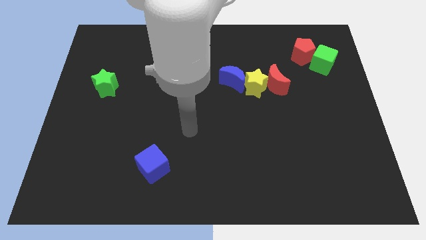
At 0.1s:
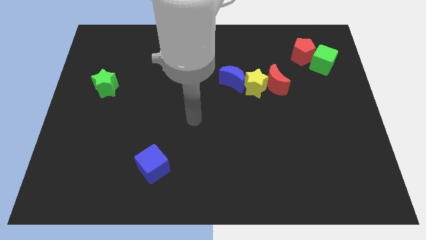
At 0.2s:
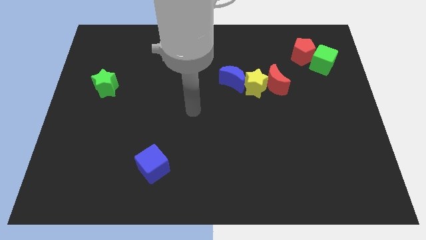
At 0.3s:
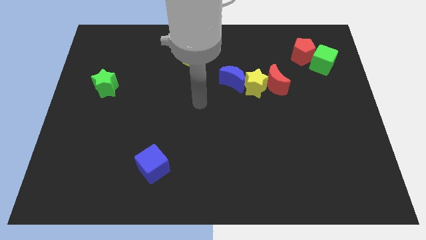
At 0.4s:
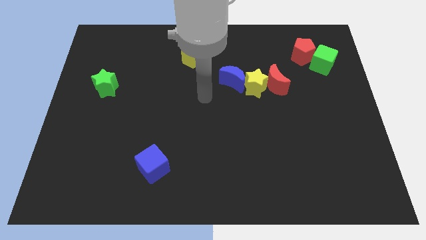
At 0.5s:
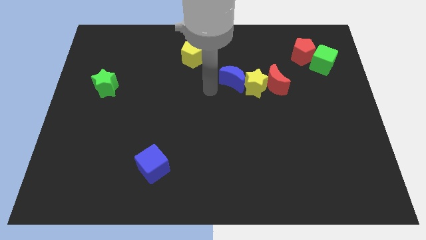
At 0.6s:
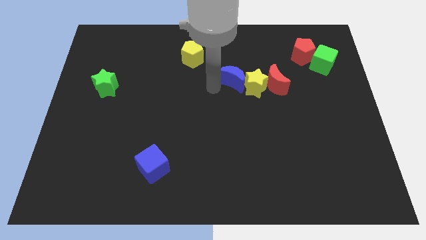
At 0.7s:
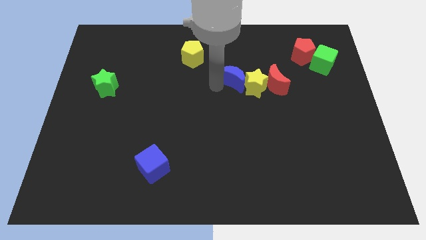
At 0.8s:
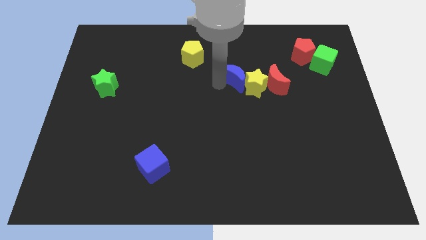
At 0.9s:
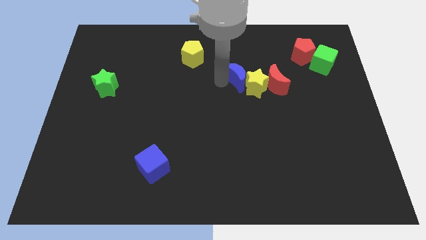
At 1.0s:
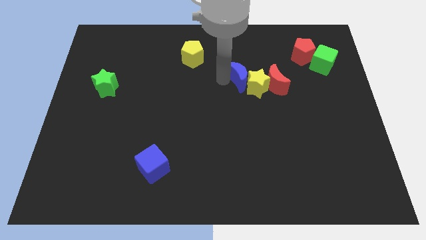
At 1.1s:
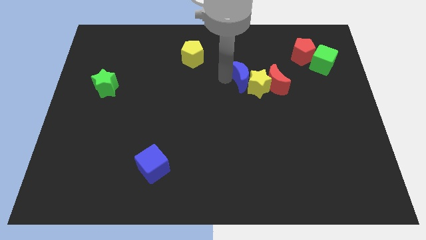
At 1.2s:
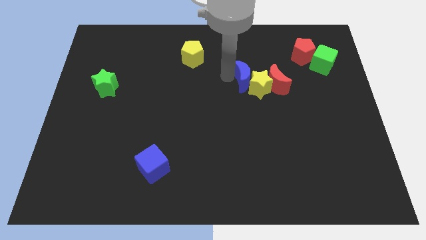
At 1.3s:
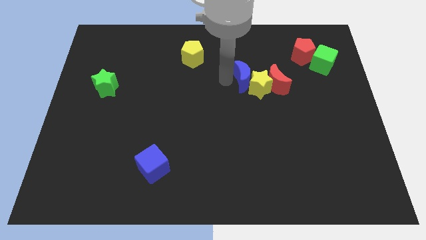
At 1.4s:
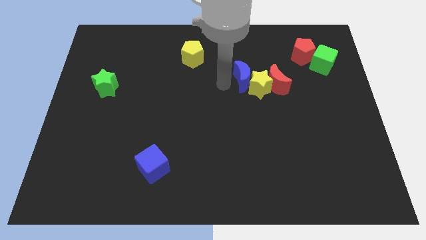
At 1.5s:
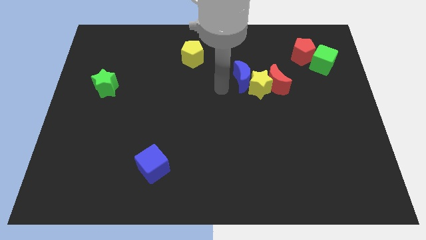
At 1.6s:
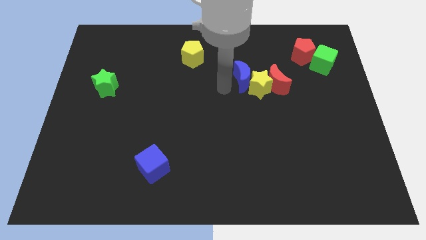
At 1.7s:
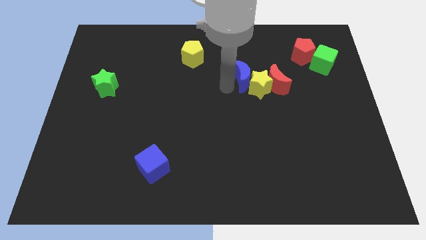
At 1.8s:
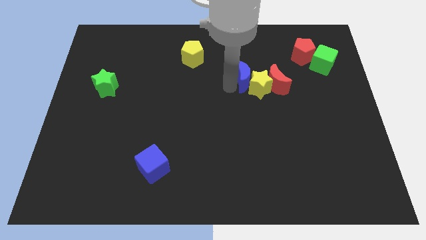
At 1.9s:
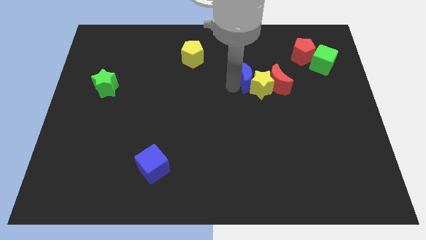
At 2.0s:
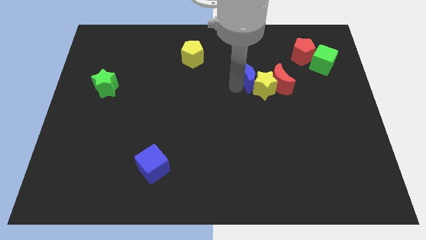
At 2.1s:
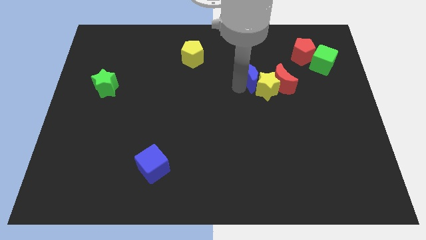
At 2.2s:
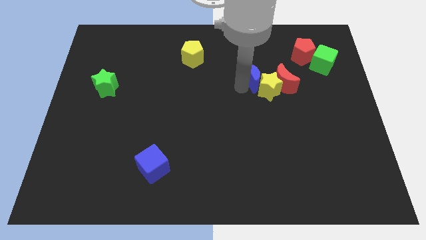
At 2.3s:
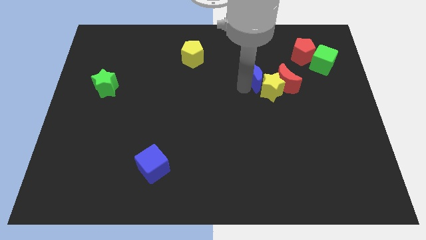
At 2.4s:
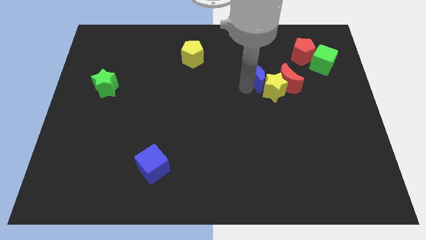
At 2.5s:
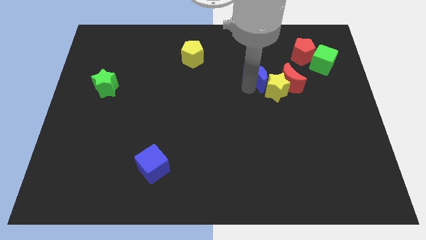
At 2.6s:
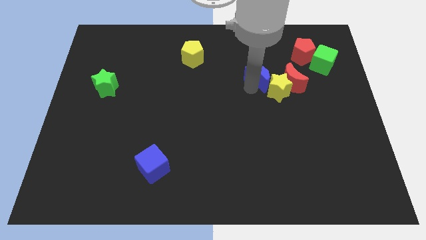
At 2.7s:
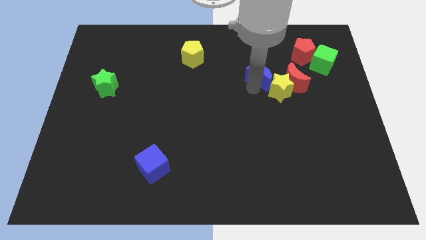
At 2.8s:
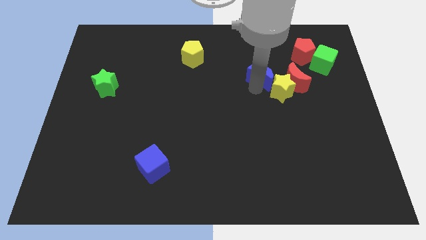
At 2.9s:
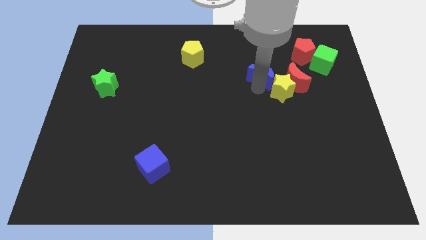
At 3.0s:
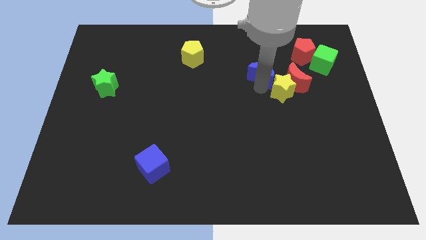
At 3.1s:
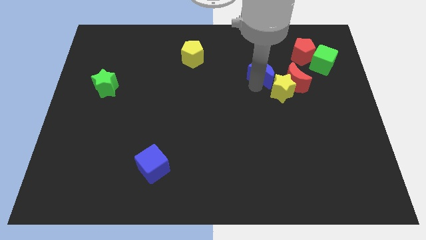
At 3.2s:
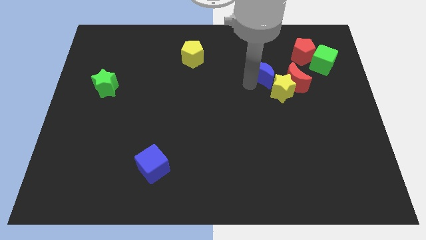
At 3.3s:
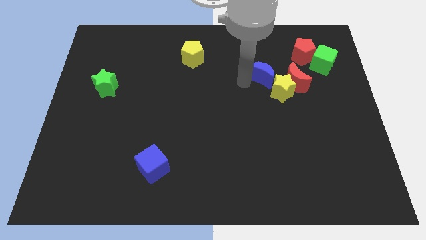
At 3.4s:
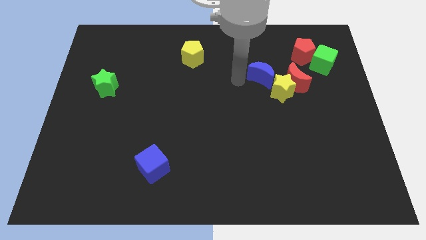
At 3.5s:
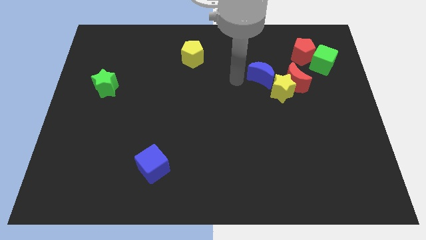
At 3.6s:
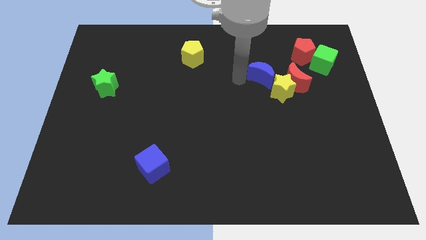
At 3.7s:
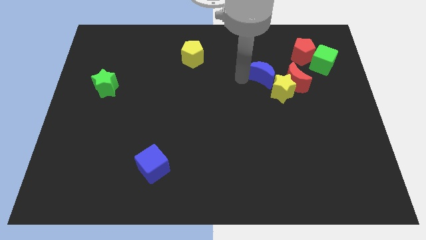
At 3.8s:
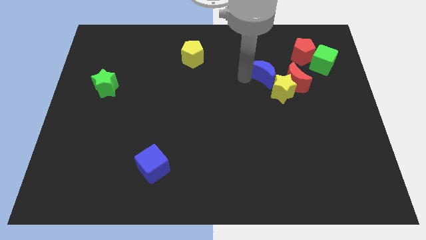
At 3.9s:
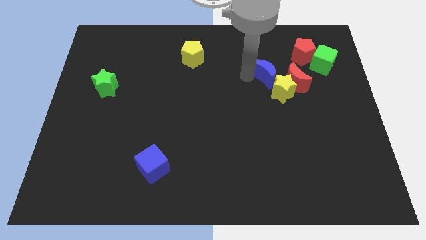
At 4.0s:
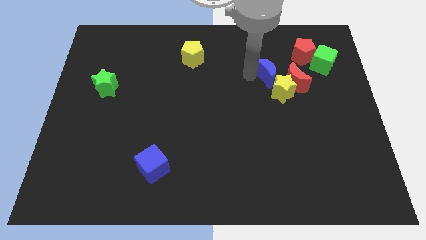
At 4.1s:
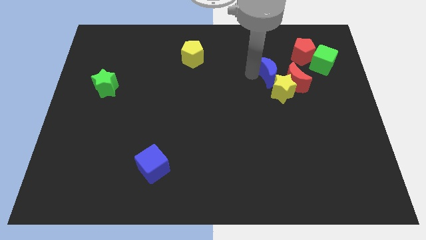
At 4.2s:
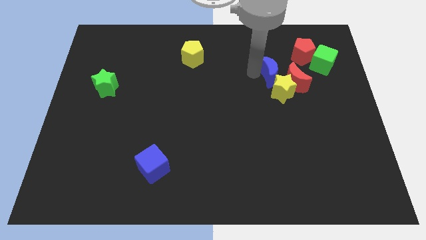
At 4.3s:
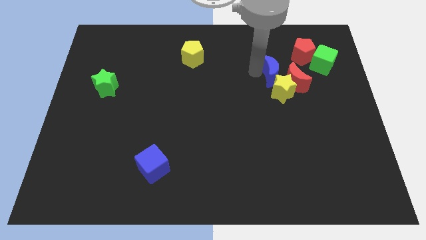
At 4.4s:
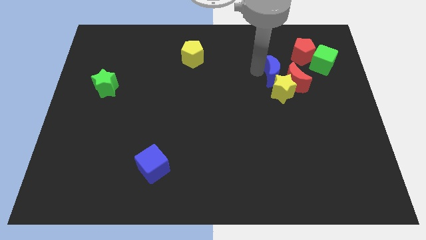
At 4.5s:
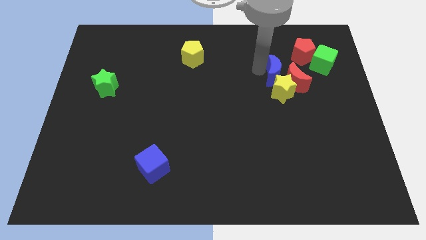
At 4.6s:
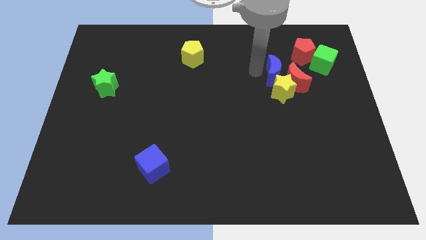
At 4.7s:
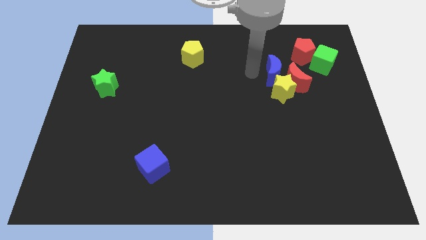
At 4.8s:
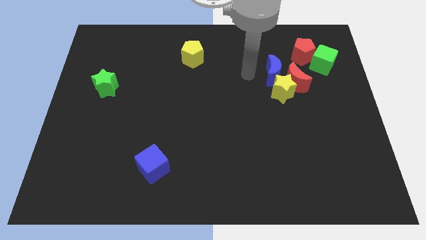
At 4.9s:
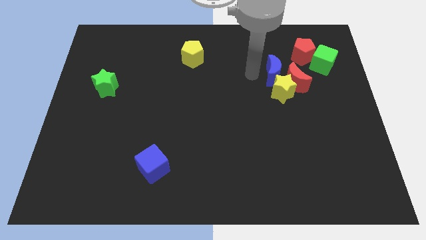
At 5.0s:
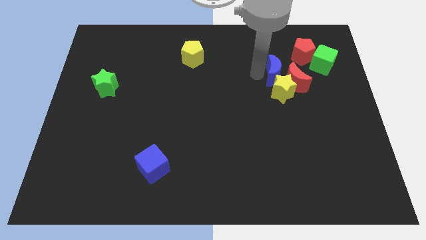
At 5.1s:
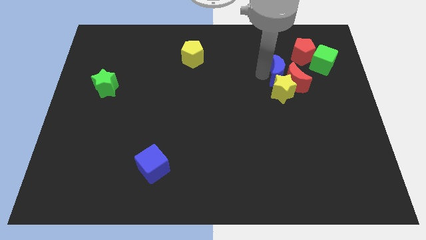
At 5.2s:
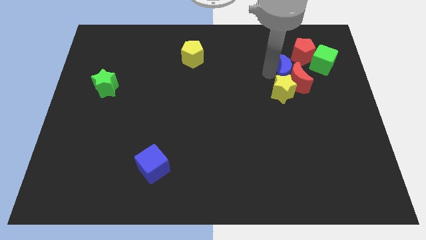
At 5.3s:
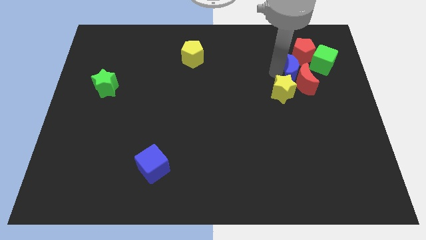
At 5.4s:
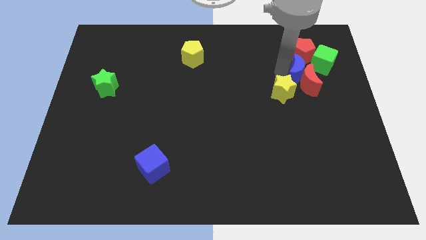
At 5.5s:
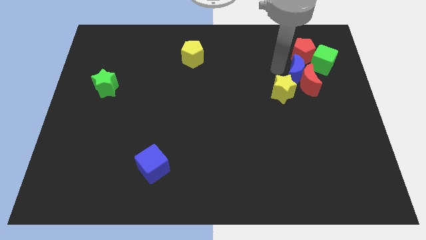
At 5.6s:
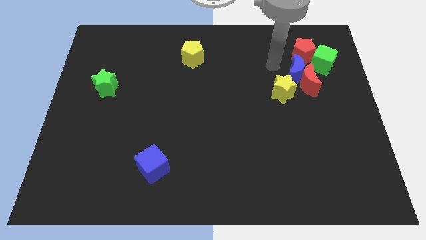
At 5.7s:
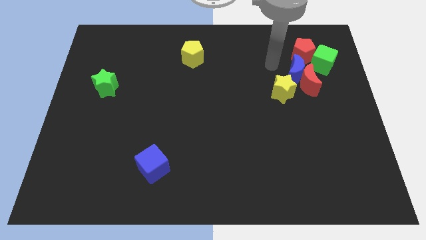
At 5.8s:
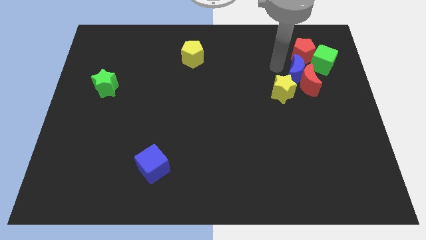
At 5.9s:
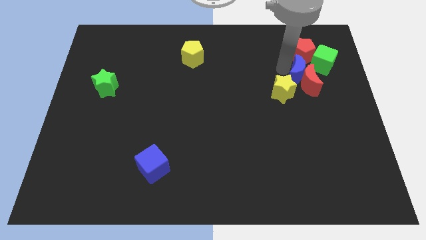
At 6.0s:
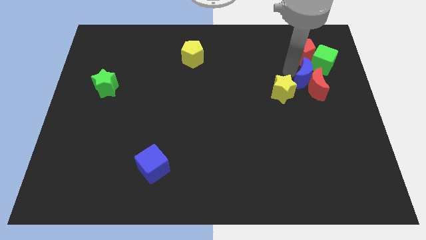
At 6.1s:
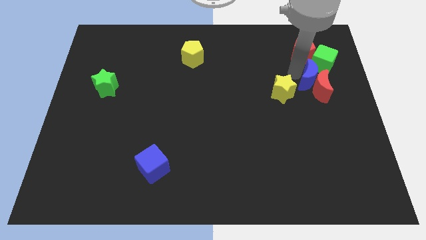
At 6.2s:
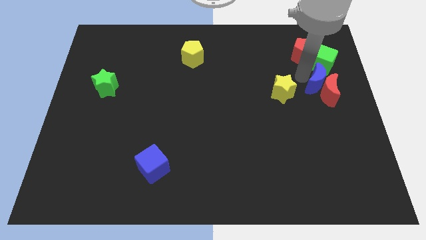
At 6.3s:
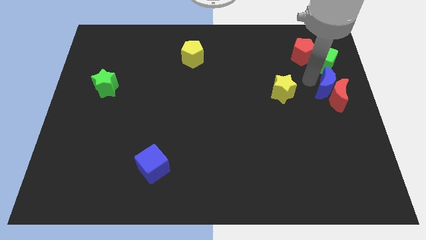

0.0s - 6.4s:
move the blue moon to the right side
